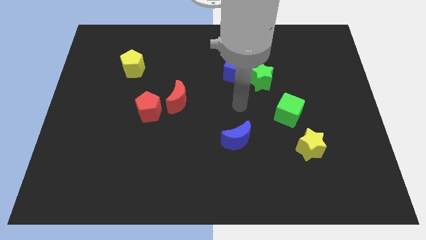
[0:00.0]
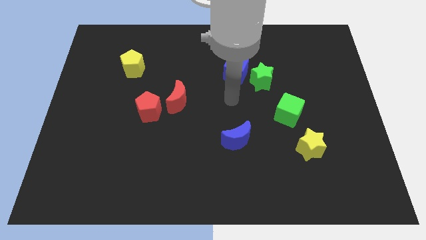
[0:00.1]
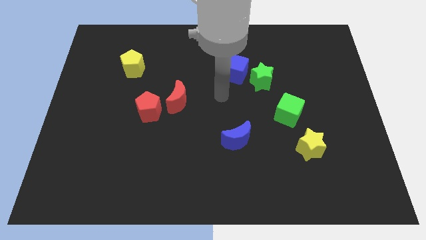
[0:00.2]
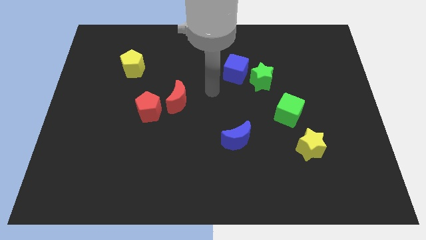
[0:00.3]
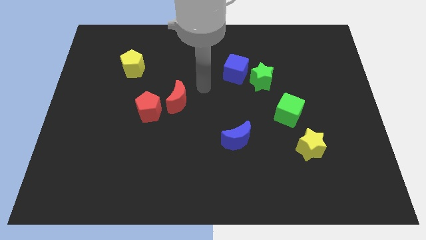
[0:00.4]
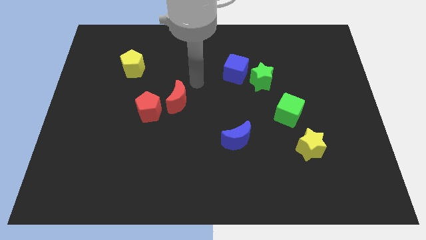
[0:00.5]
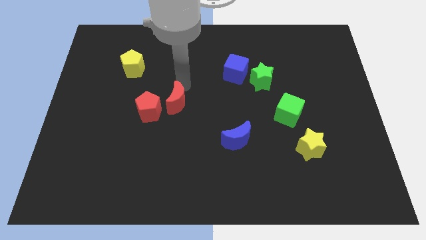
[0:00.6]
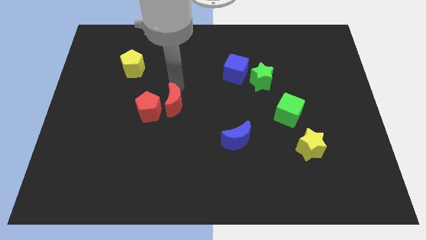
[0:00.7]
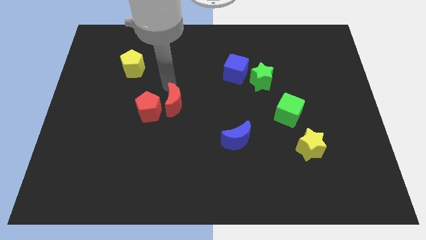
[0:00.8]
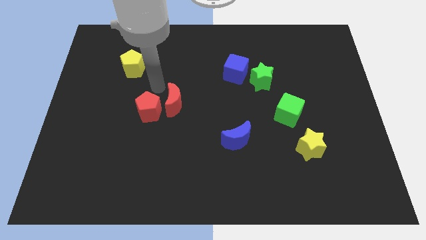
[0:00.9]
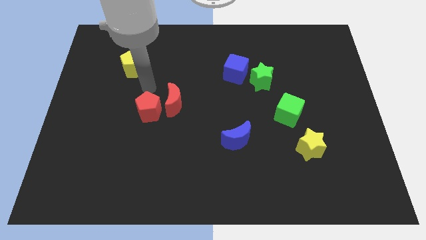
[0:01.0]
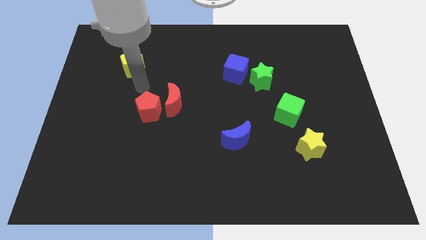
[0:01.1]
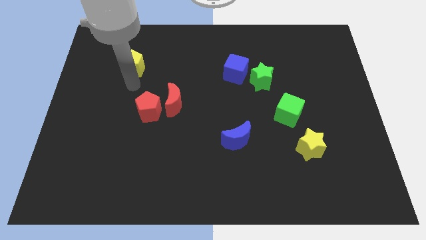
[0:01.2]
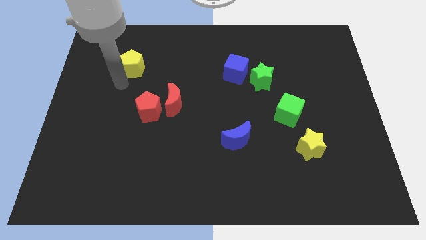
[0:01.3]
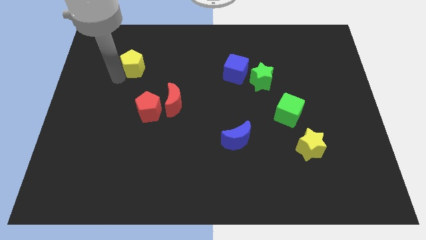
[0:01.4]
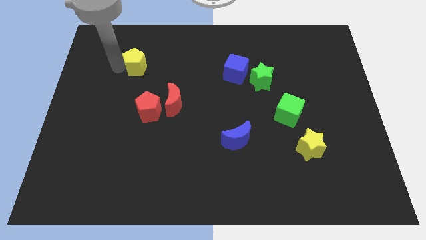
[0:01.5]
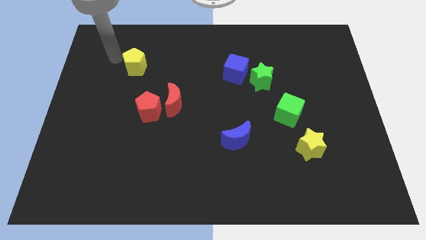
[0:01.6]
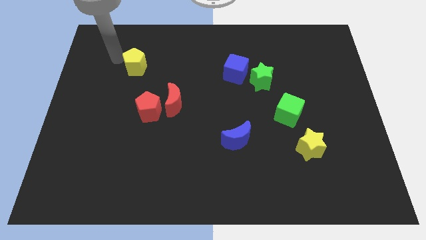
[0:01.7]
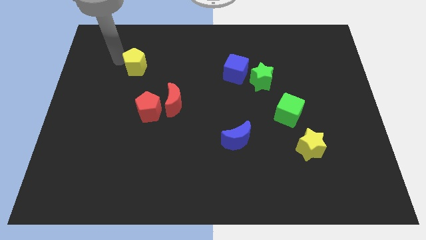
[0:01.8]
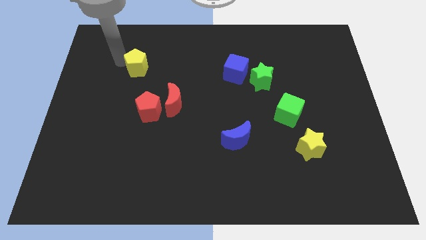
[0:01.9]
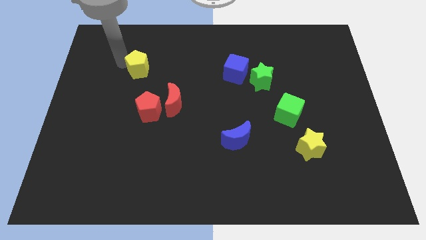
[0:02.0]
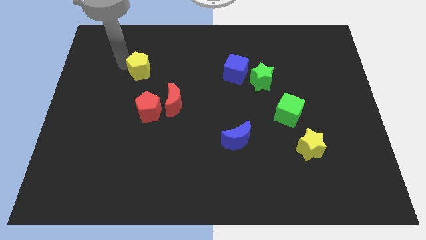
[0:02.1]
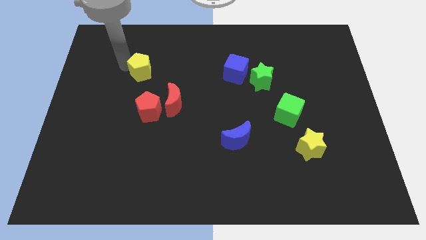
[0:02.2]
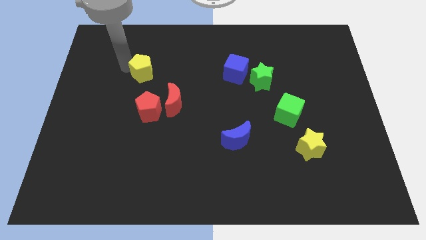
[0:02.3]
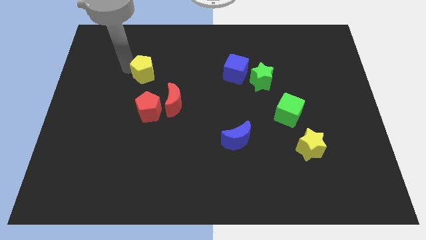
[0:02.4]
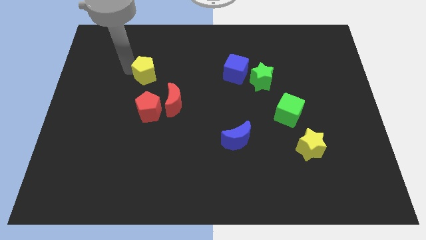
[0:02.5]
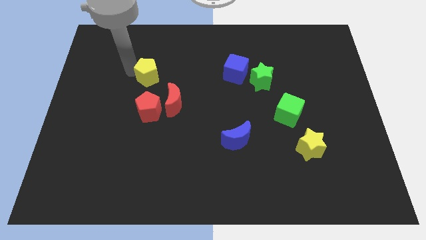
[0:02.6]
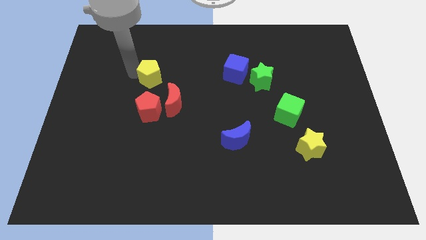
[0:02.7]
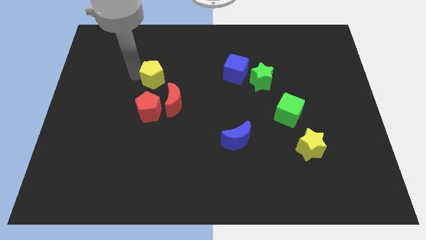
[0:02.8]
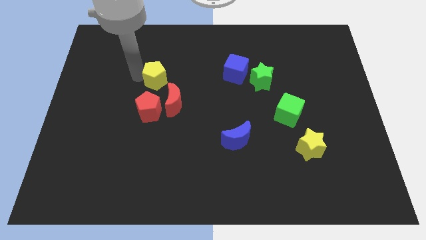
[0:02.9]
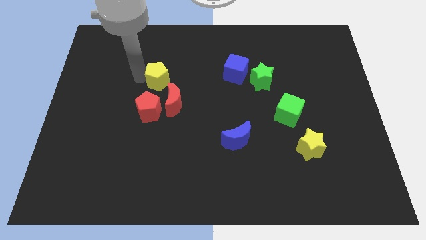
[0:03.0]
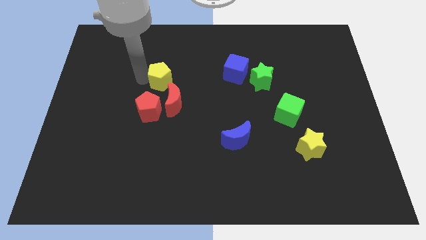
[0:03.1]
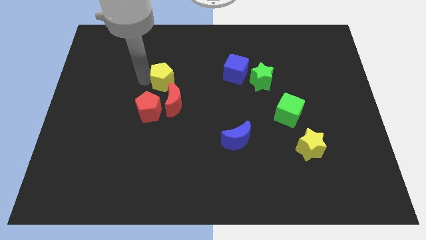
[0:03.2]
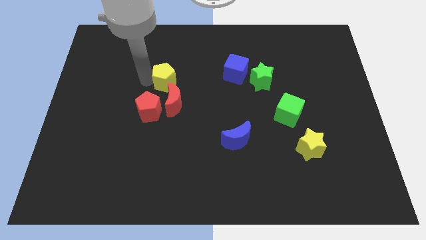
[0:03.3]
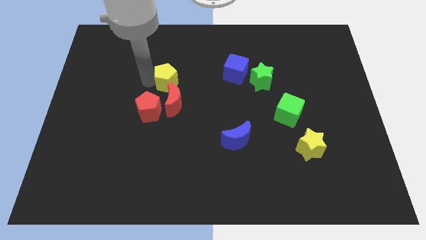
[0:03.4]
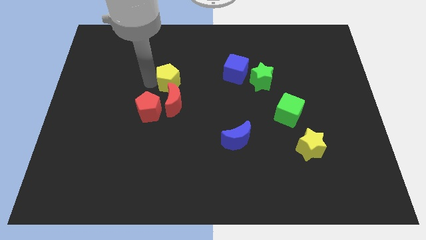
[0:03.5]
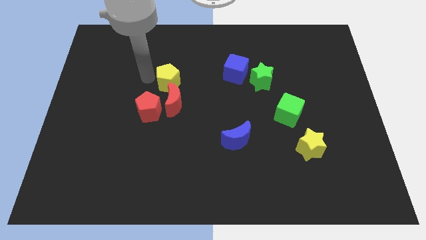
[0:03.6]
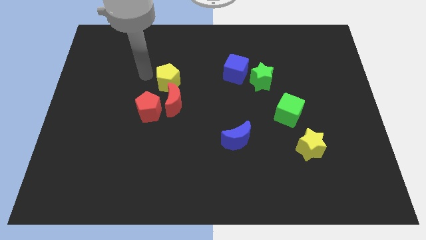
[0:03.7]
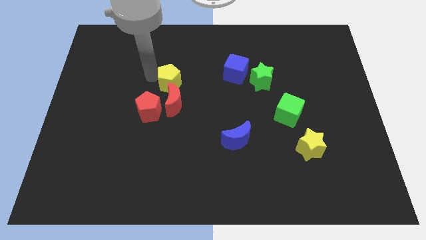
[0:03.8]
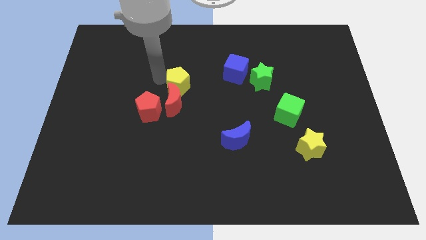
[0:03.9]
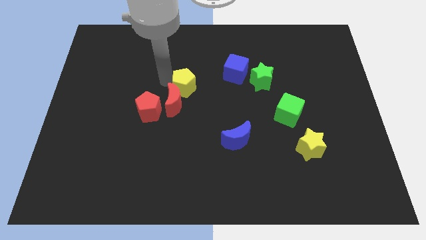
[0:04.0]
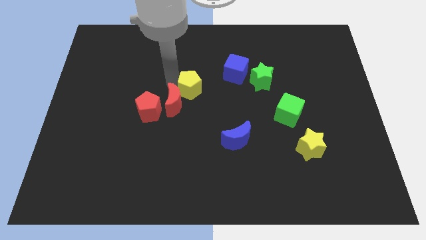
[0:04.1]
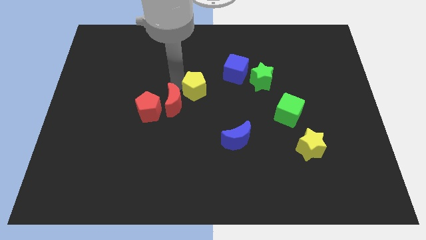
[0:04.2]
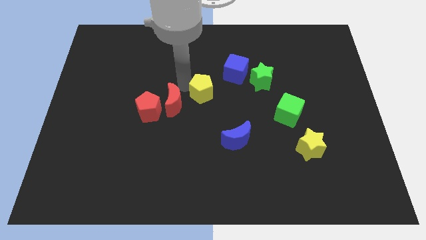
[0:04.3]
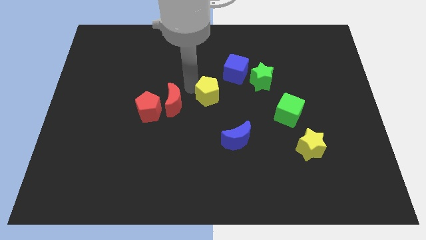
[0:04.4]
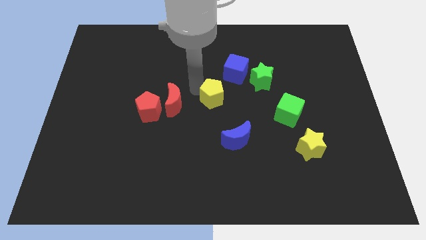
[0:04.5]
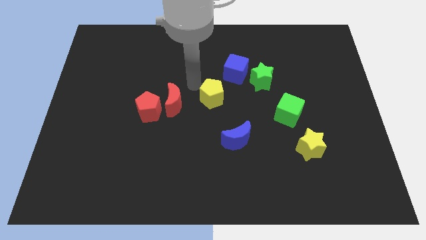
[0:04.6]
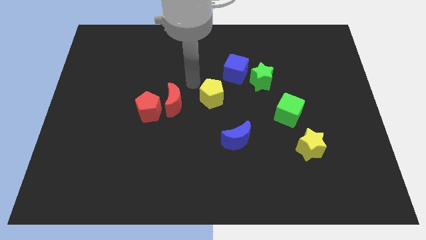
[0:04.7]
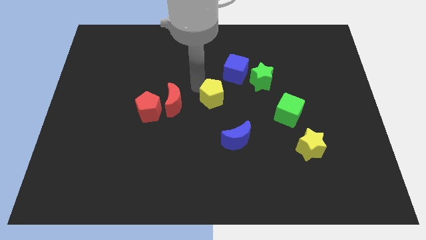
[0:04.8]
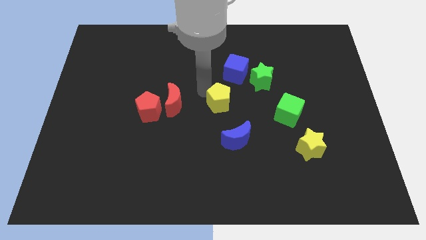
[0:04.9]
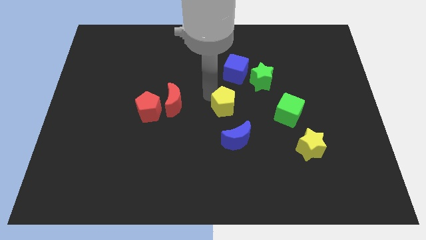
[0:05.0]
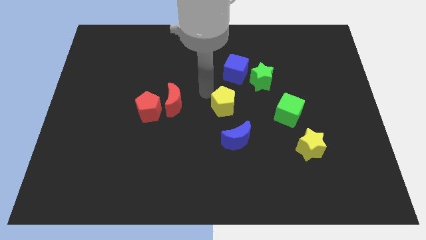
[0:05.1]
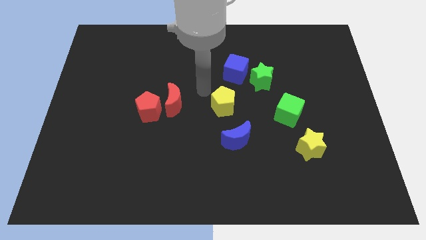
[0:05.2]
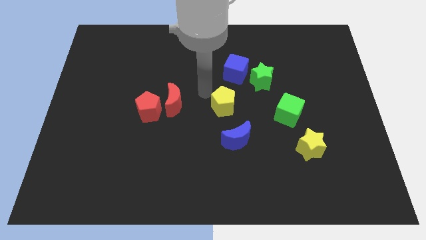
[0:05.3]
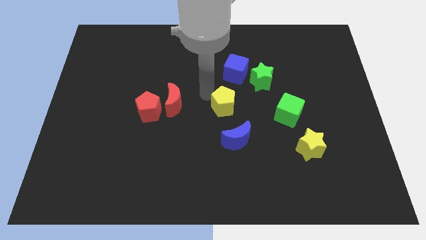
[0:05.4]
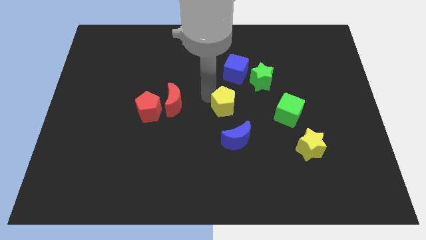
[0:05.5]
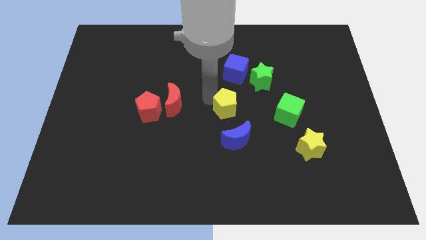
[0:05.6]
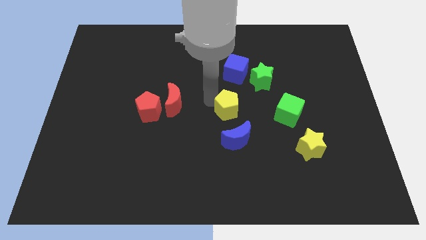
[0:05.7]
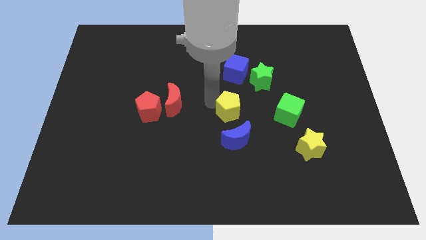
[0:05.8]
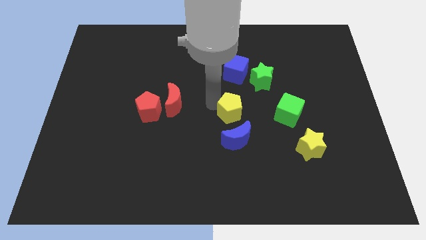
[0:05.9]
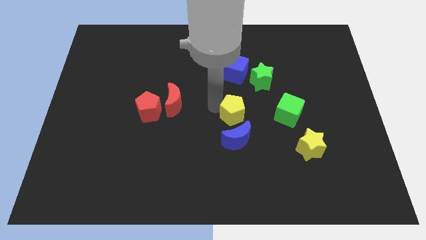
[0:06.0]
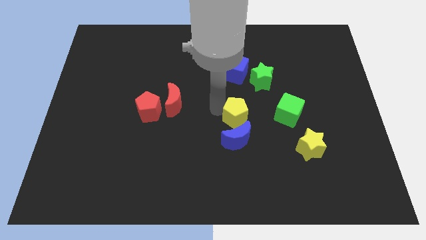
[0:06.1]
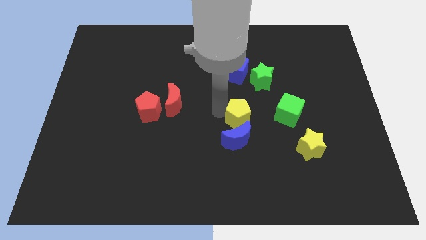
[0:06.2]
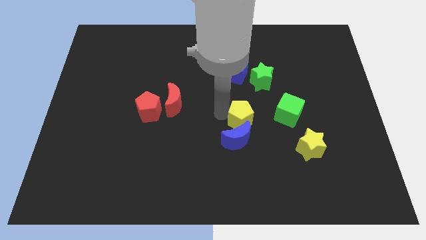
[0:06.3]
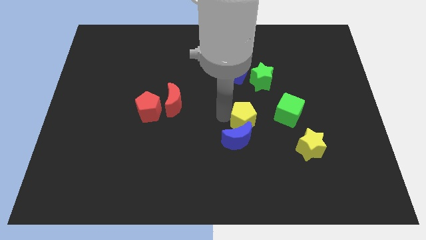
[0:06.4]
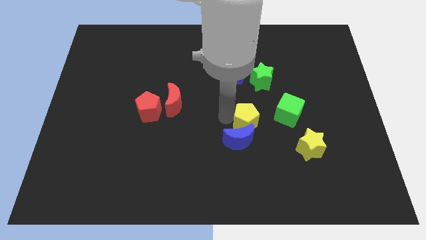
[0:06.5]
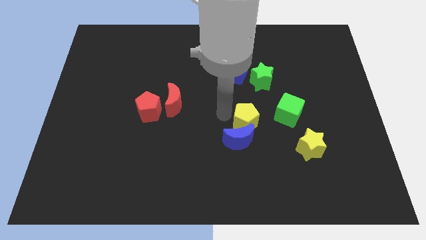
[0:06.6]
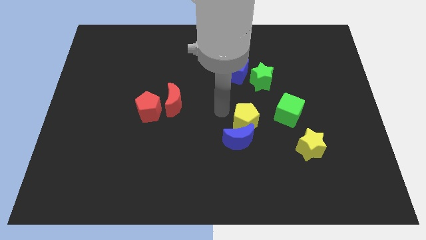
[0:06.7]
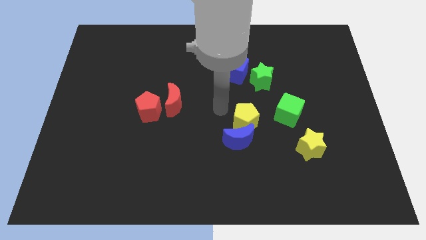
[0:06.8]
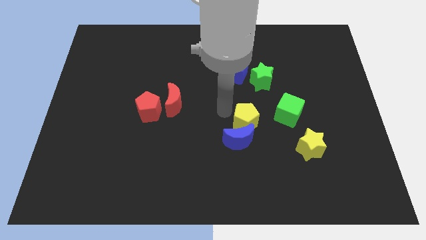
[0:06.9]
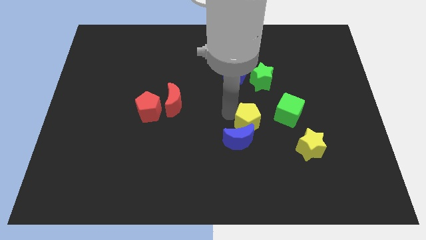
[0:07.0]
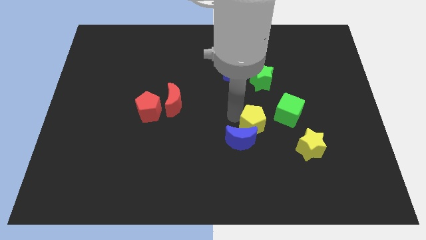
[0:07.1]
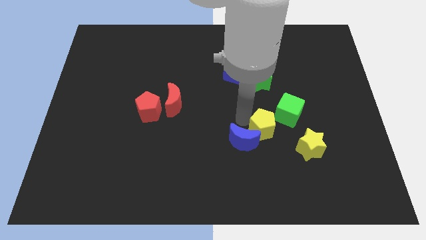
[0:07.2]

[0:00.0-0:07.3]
put the yellow pentagon to the right of the blue moon
